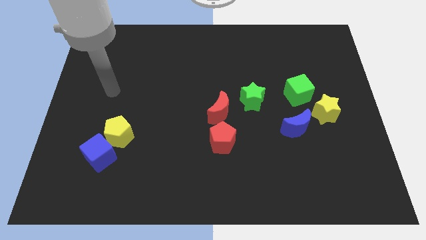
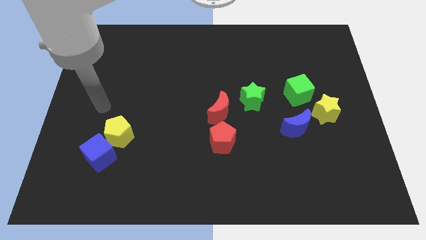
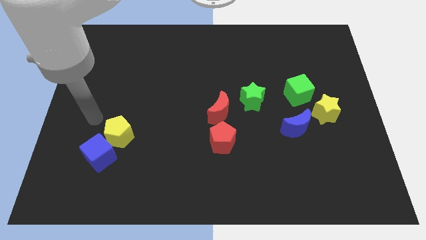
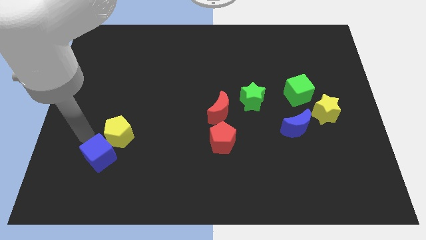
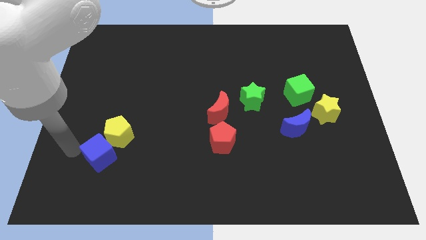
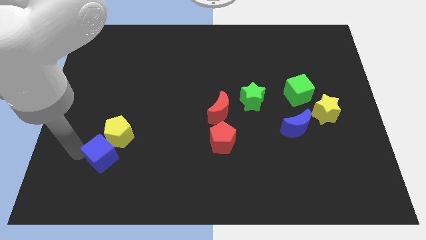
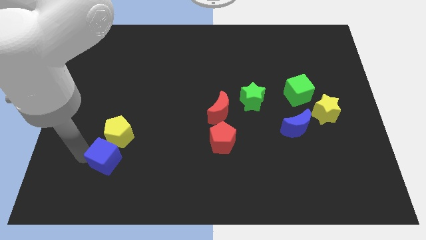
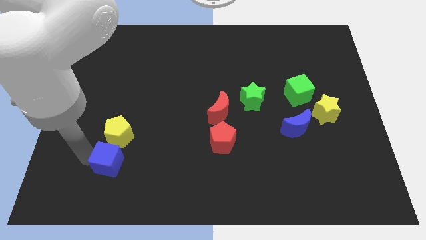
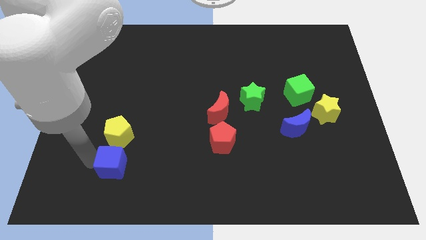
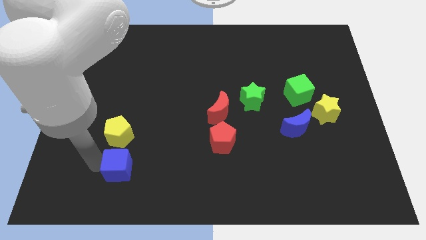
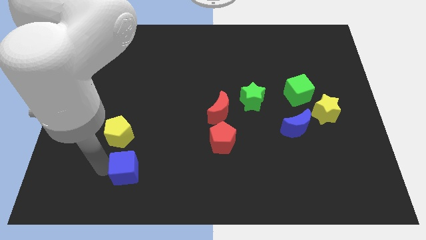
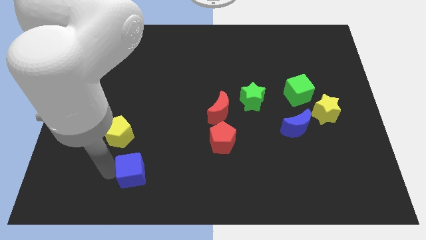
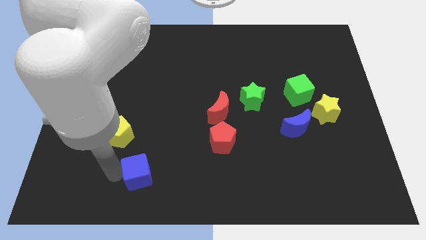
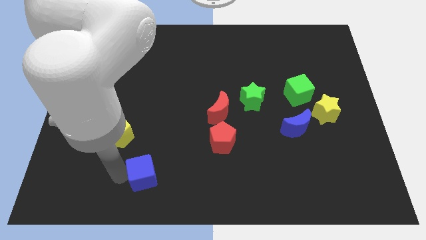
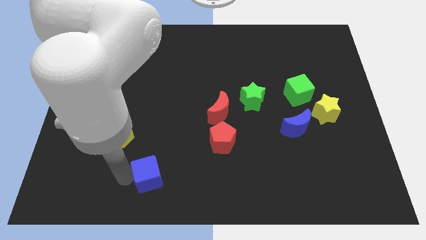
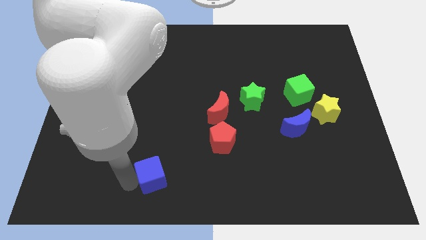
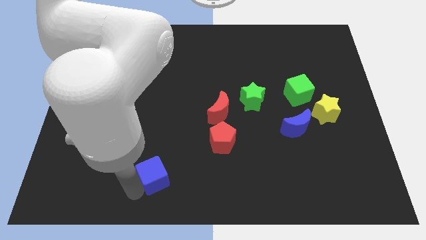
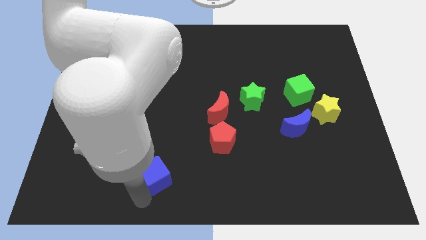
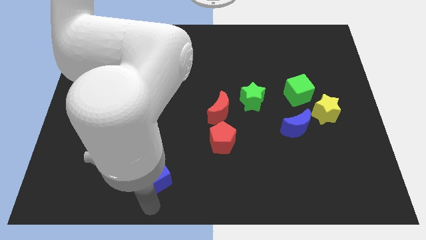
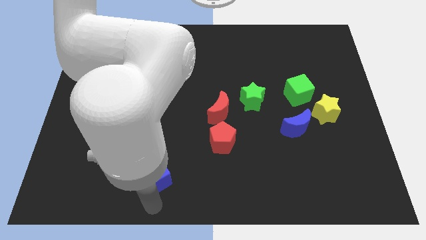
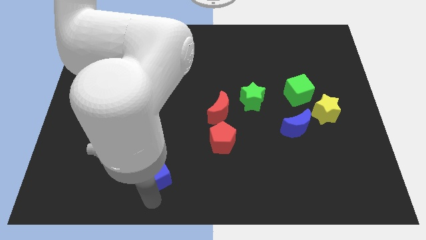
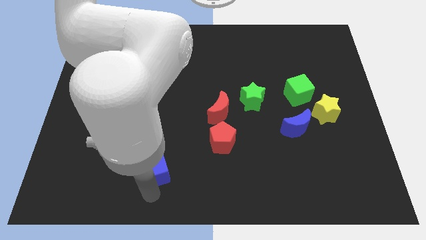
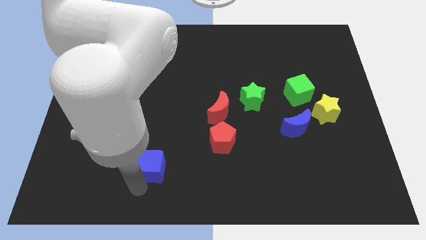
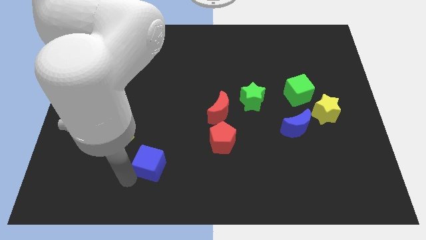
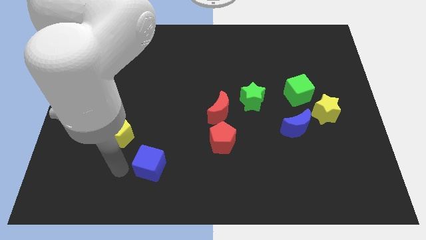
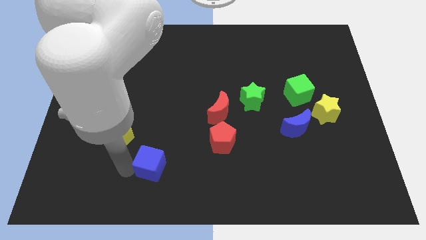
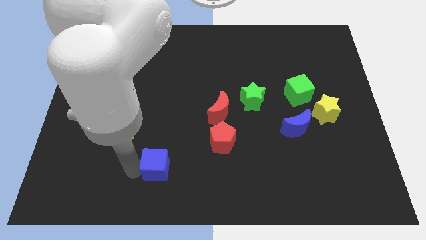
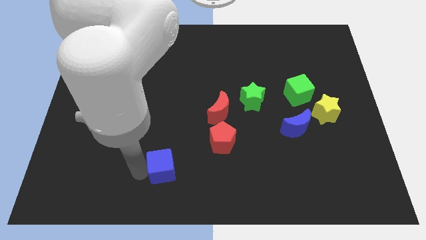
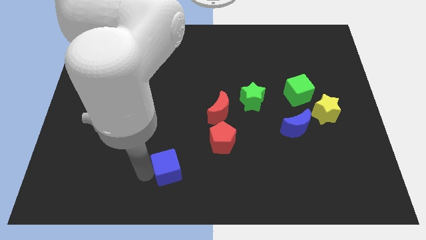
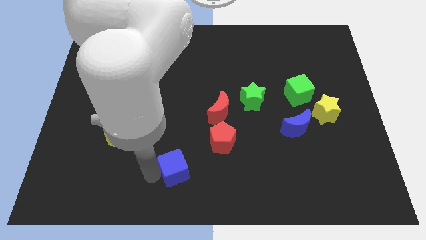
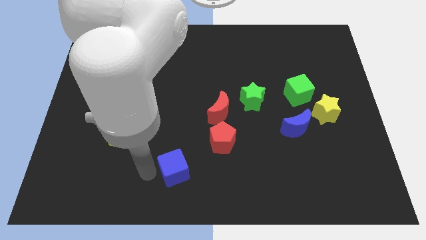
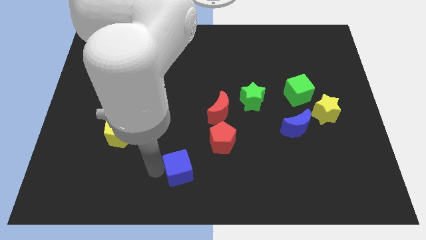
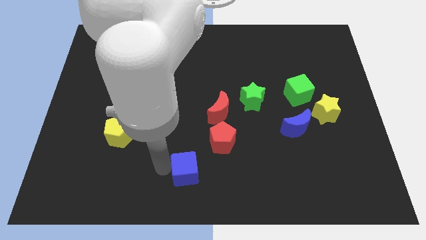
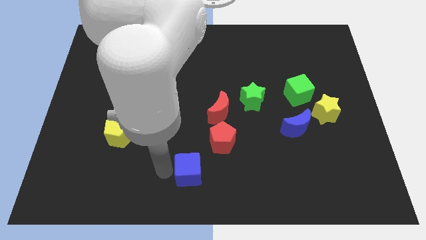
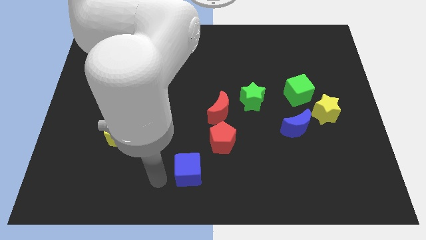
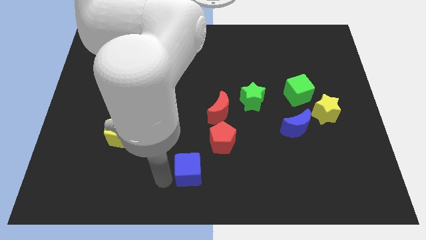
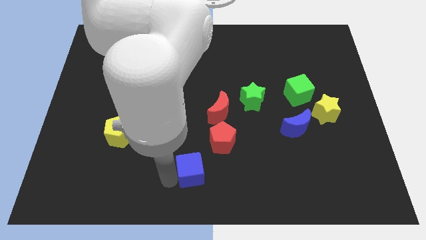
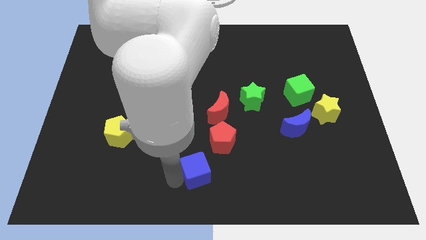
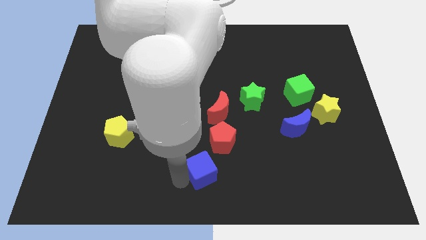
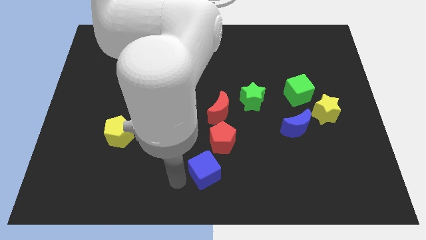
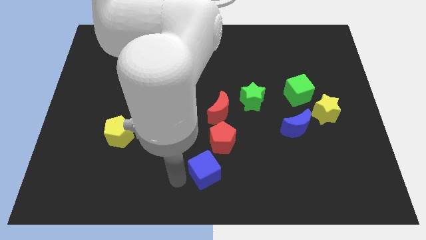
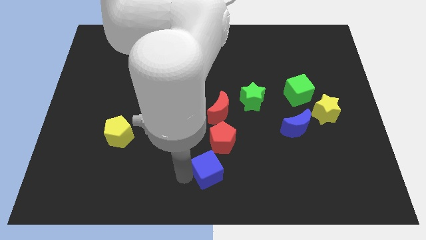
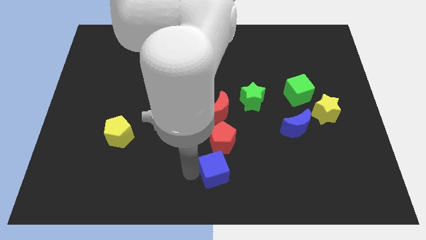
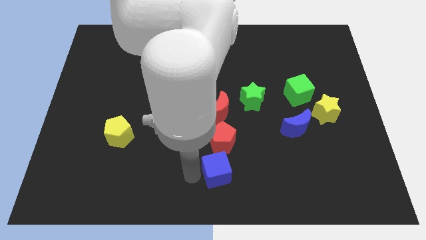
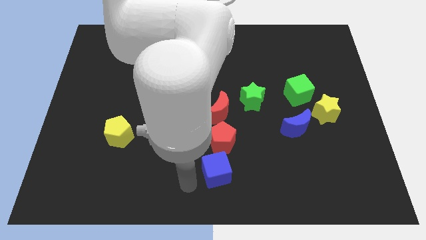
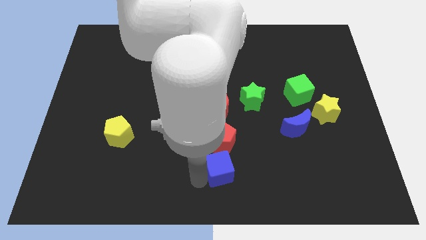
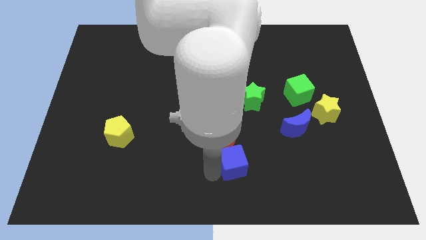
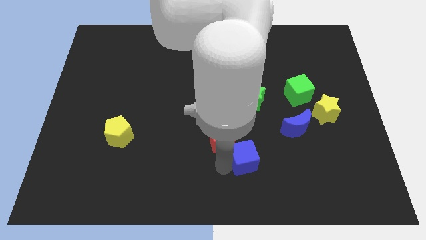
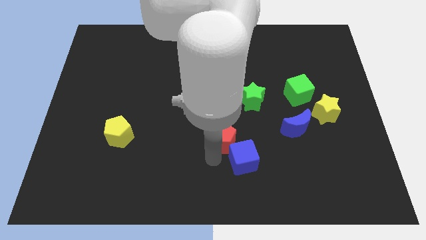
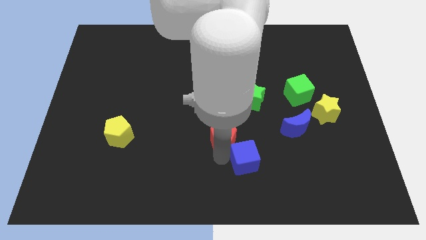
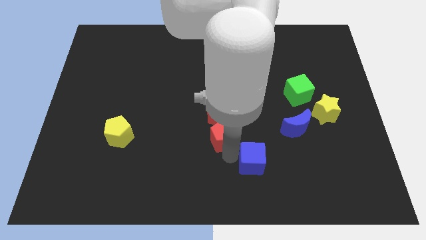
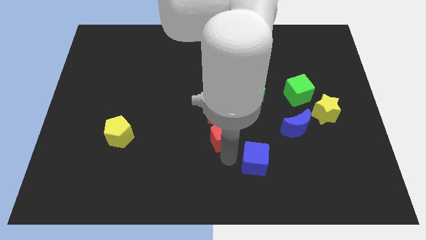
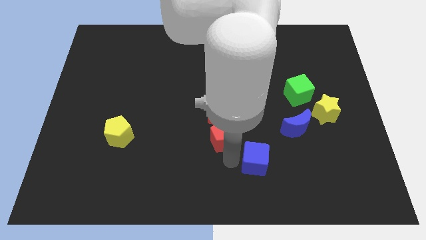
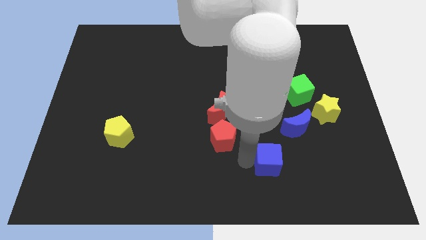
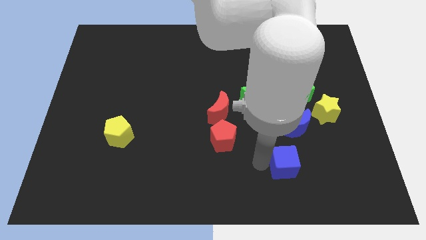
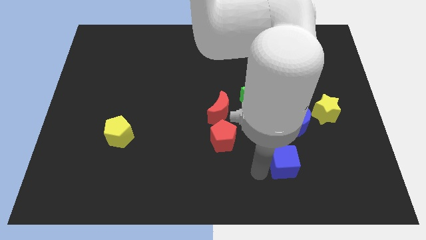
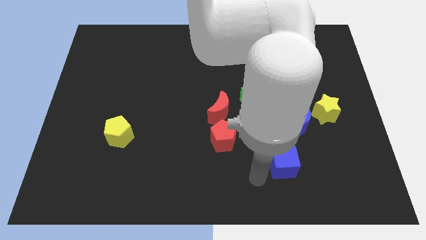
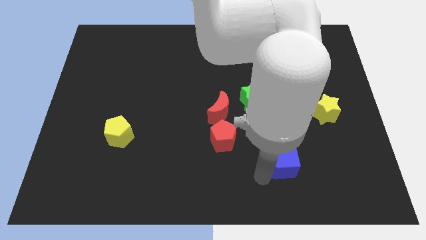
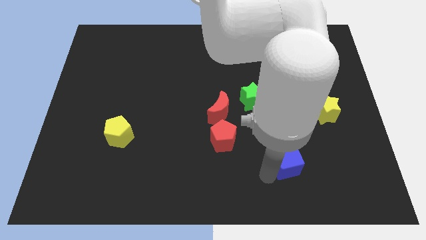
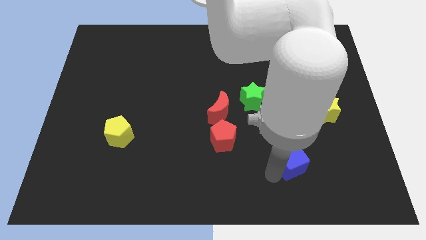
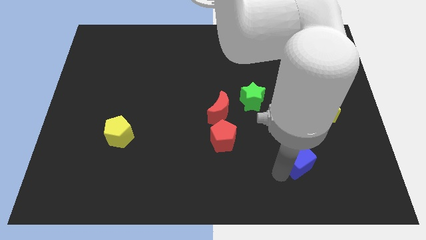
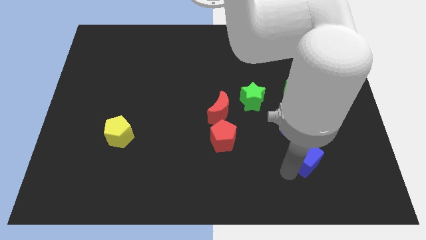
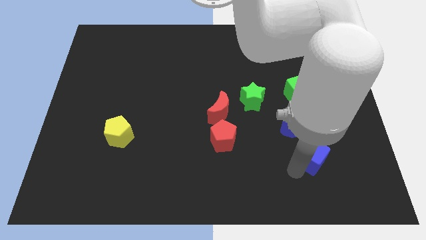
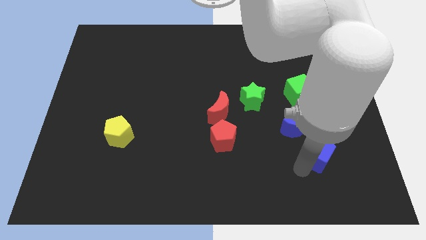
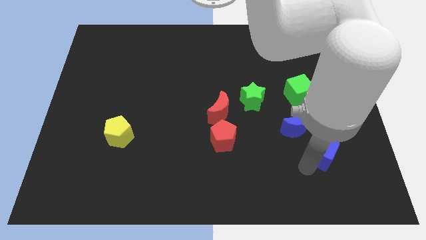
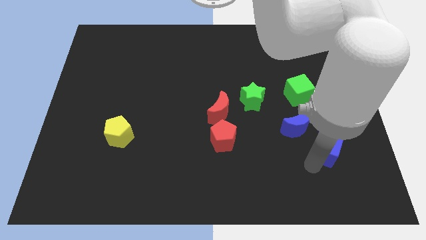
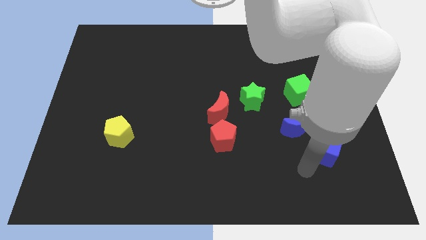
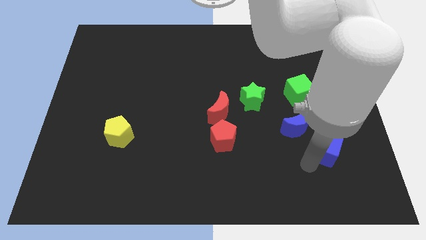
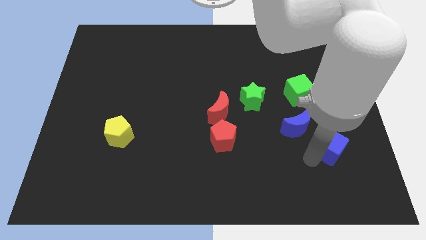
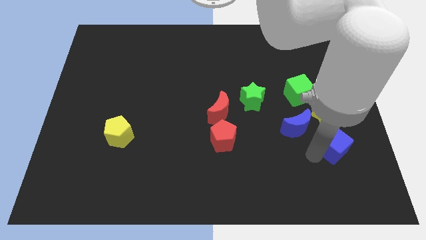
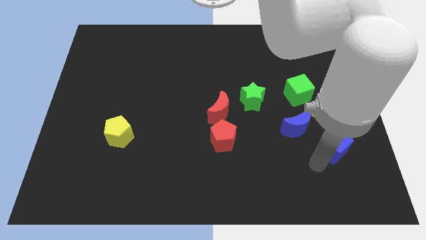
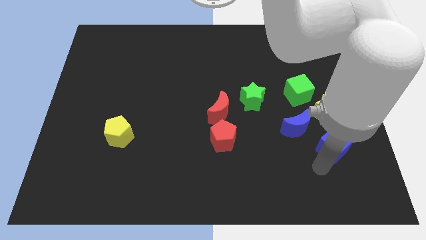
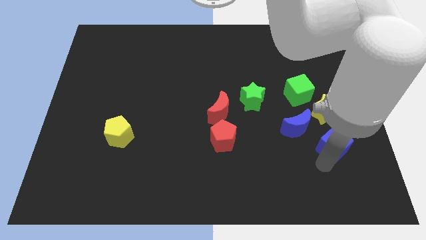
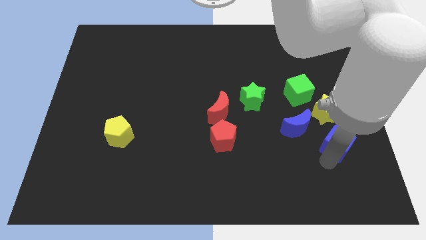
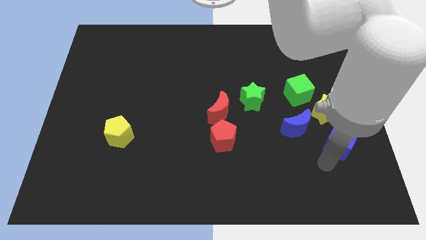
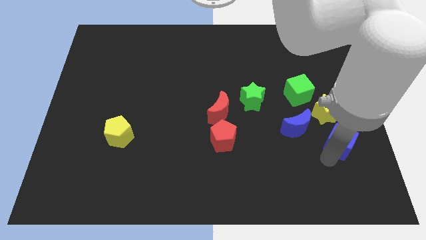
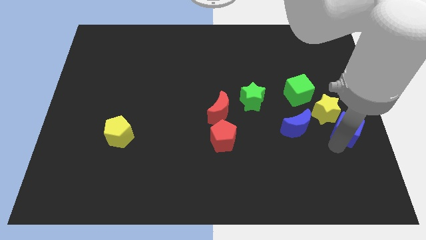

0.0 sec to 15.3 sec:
slide the blue cube to the right side of the board
